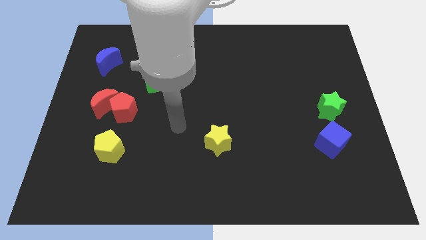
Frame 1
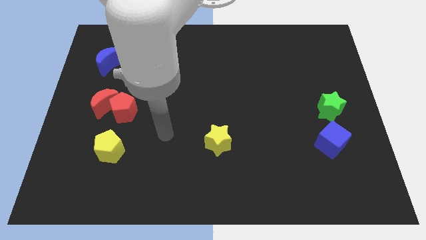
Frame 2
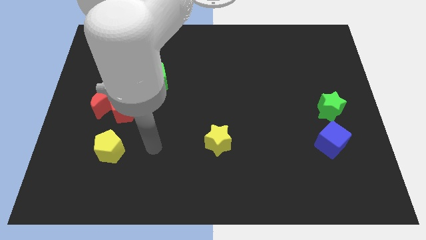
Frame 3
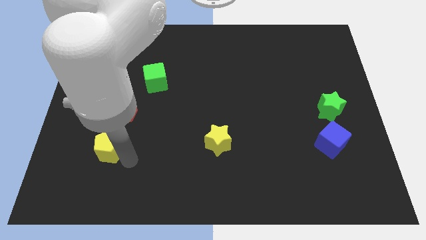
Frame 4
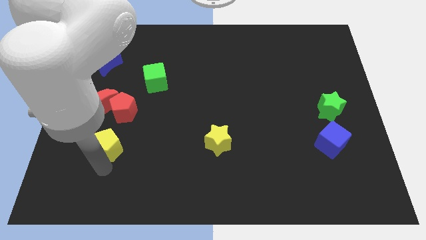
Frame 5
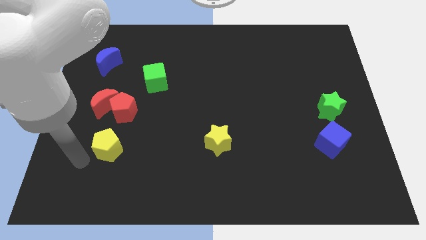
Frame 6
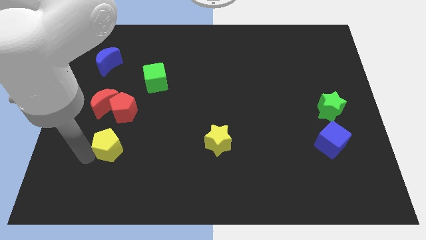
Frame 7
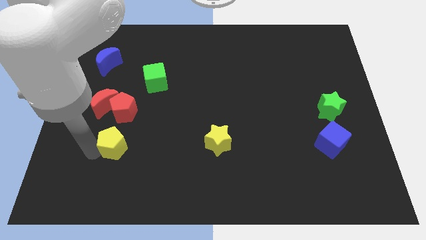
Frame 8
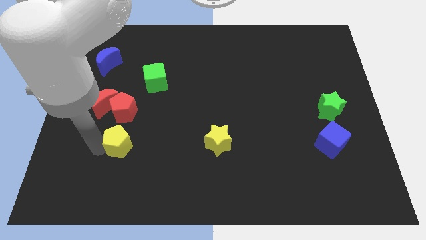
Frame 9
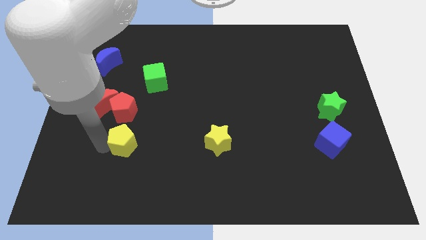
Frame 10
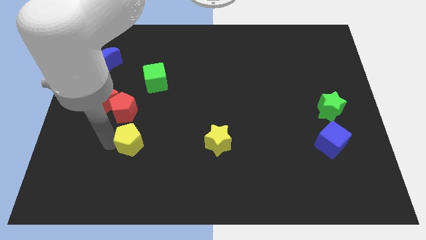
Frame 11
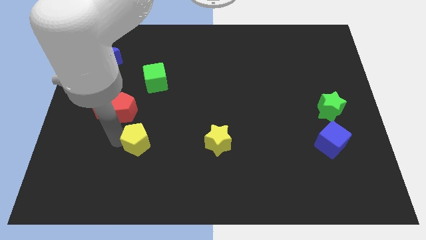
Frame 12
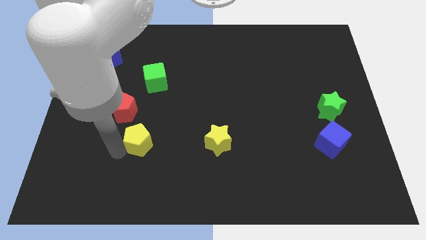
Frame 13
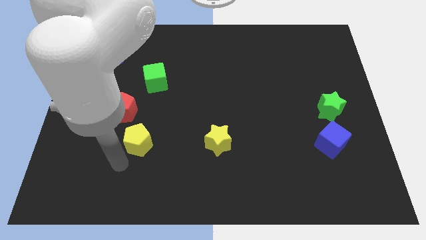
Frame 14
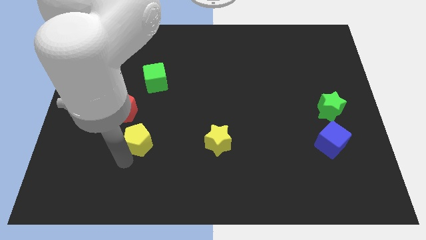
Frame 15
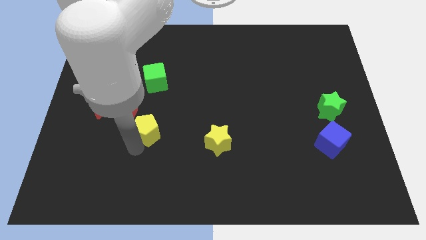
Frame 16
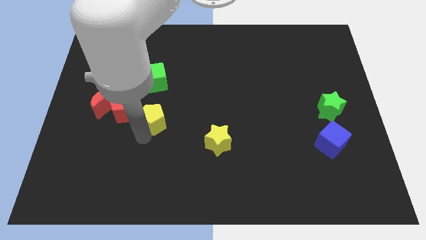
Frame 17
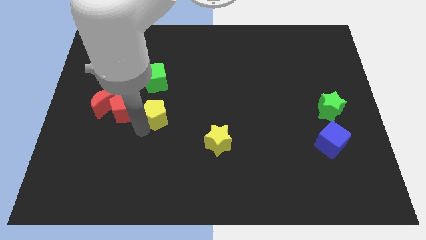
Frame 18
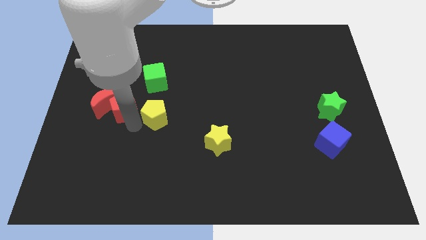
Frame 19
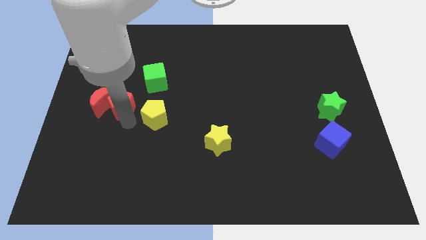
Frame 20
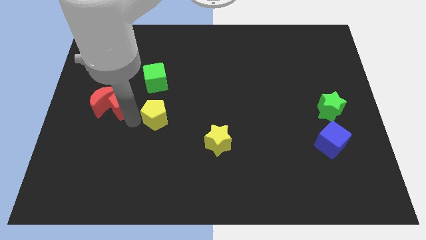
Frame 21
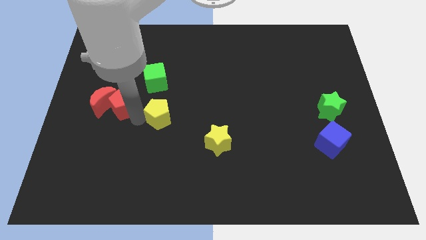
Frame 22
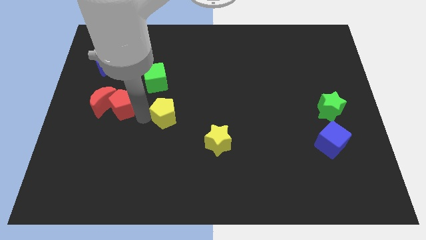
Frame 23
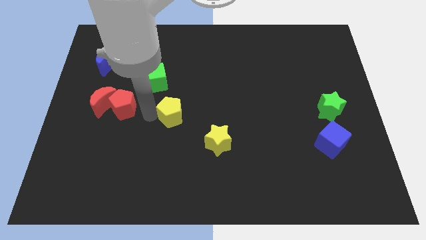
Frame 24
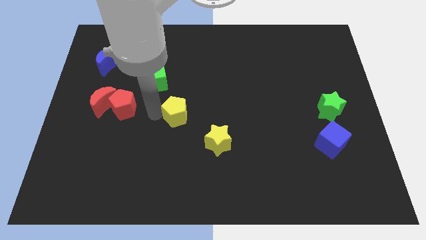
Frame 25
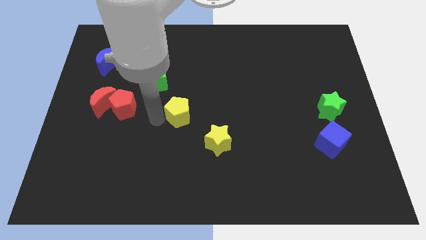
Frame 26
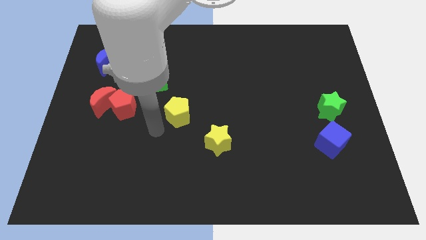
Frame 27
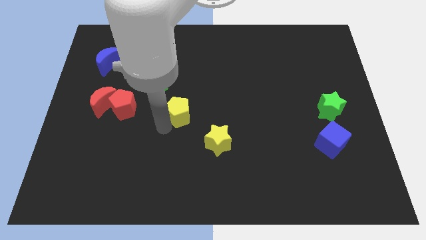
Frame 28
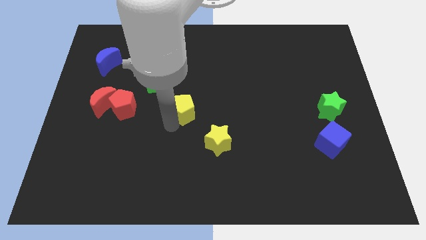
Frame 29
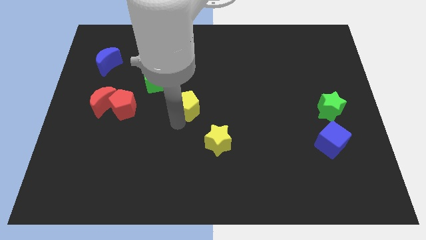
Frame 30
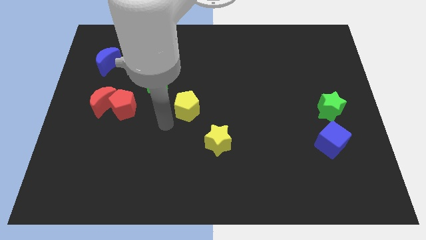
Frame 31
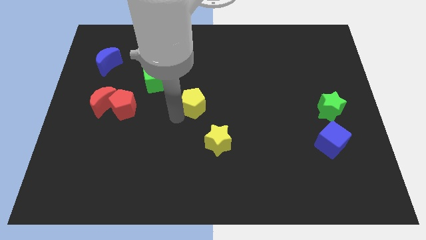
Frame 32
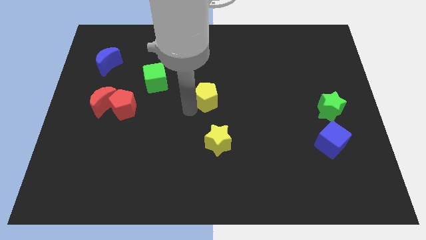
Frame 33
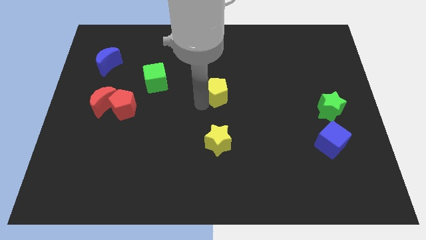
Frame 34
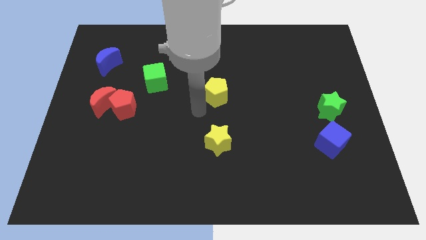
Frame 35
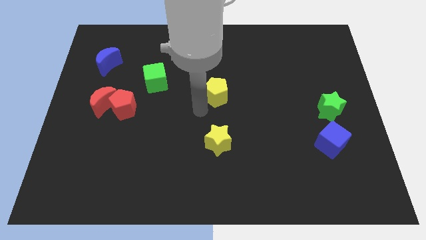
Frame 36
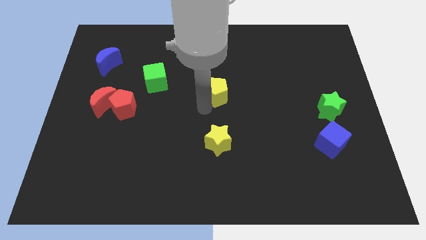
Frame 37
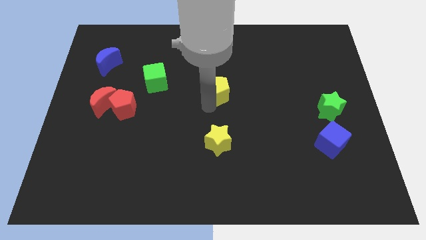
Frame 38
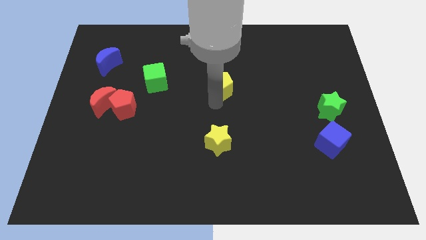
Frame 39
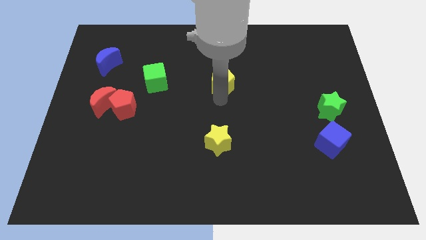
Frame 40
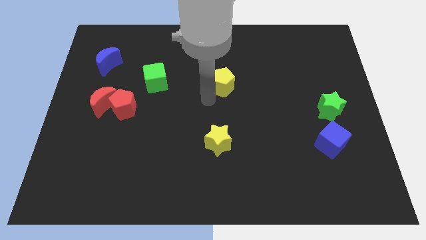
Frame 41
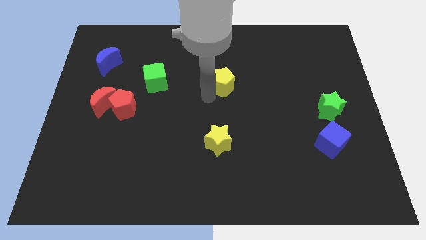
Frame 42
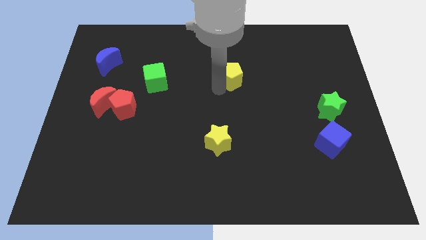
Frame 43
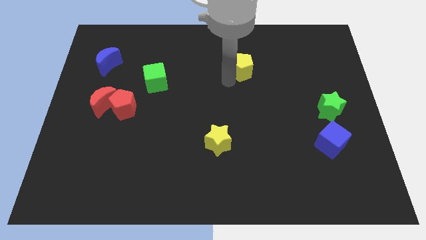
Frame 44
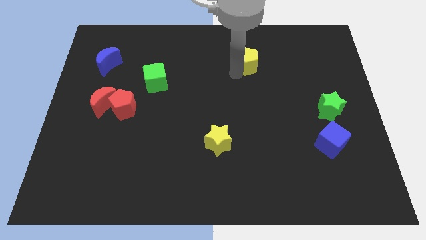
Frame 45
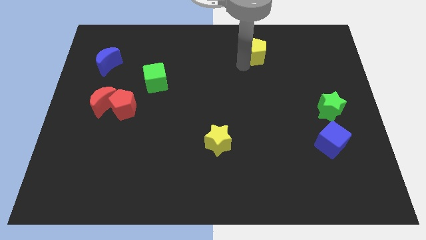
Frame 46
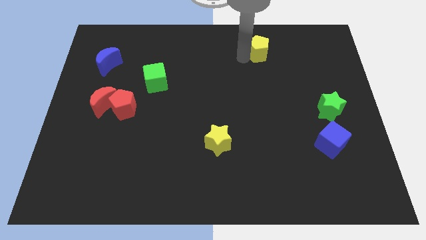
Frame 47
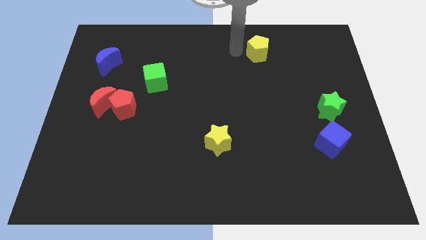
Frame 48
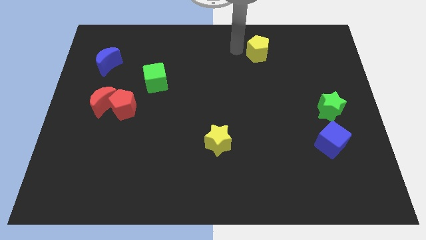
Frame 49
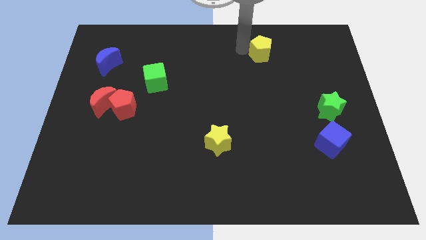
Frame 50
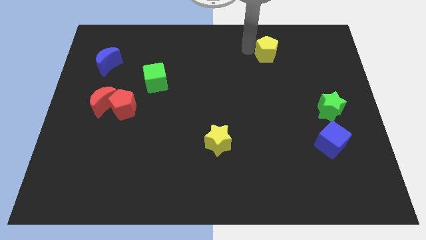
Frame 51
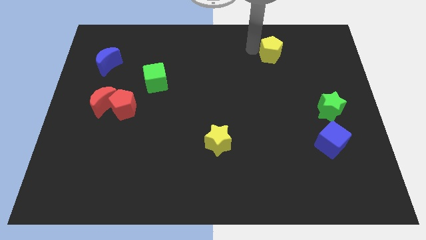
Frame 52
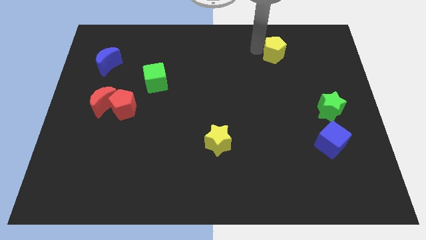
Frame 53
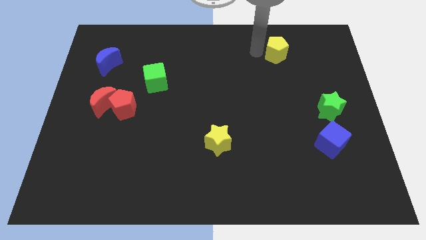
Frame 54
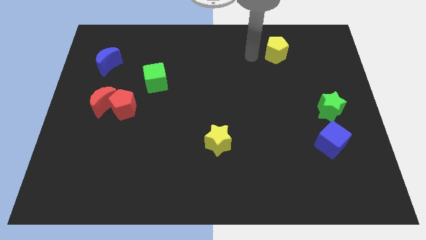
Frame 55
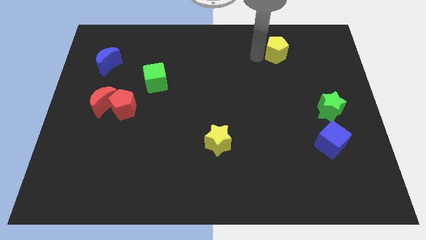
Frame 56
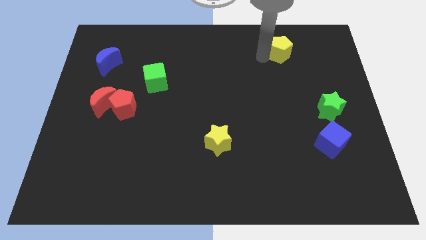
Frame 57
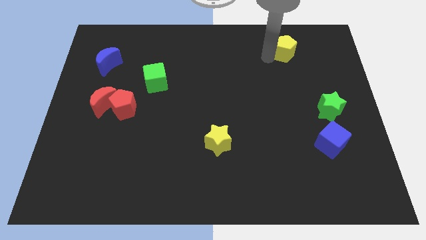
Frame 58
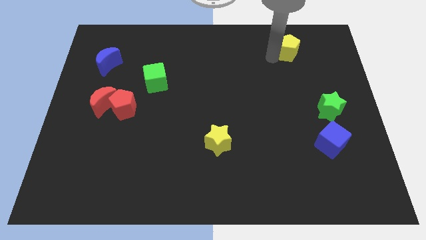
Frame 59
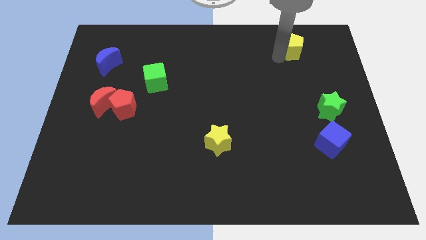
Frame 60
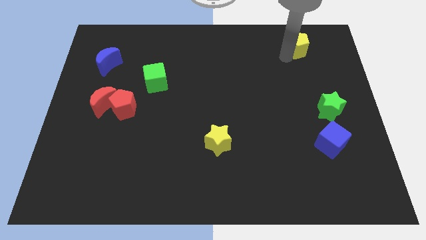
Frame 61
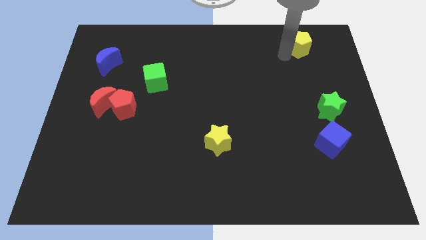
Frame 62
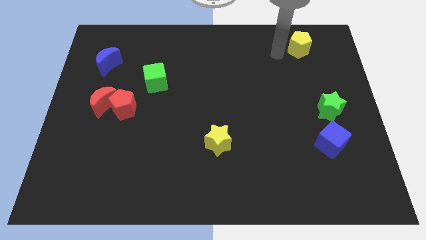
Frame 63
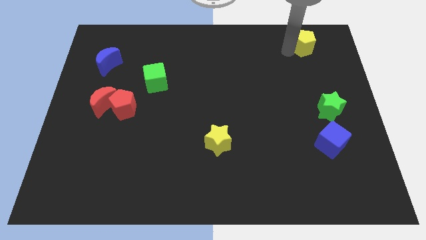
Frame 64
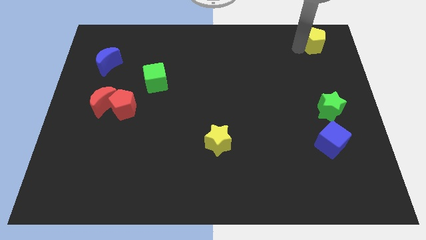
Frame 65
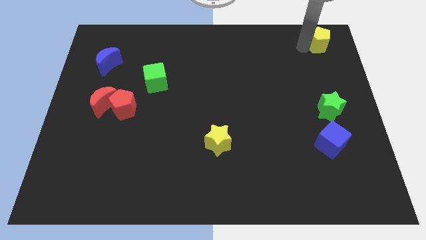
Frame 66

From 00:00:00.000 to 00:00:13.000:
slide the yellow pentagon to the top right
